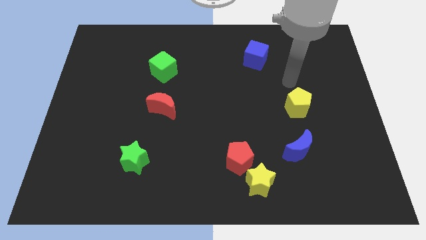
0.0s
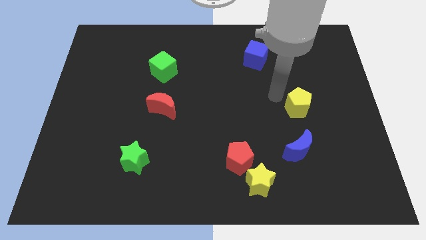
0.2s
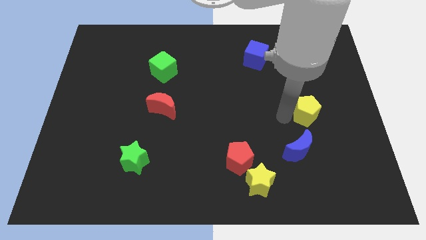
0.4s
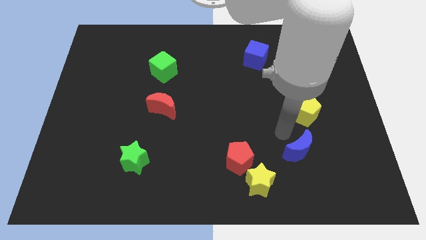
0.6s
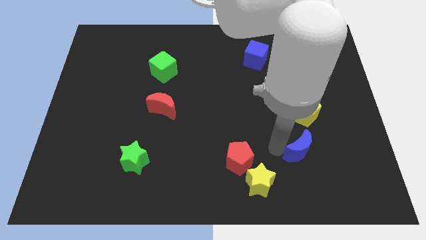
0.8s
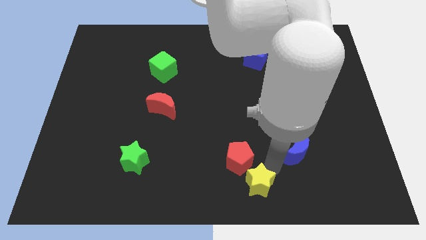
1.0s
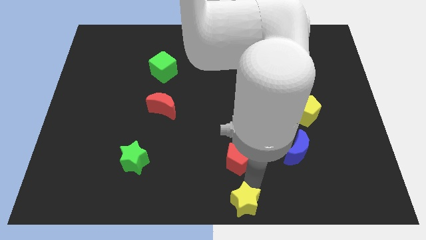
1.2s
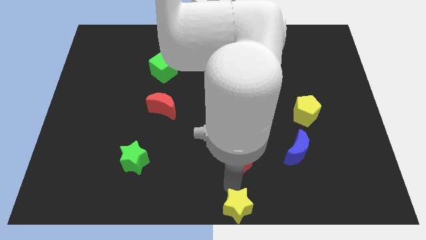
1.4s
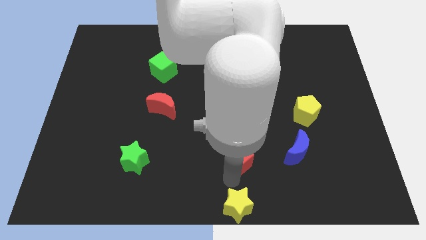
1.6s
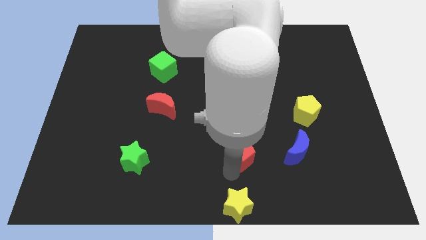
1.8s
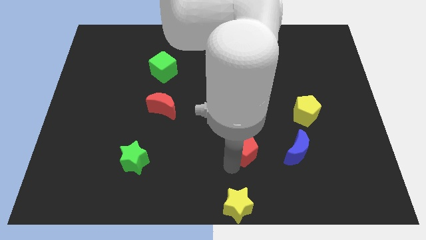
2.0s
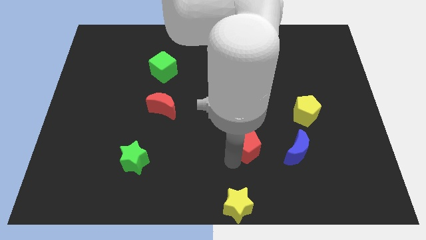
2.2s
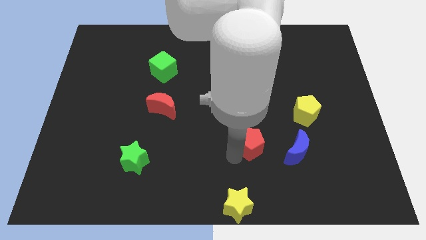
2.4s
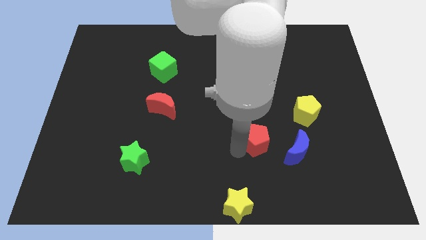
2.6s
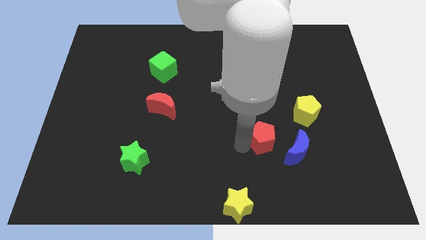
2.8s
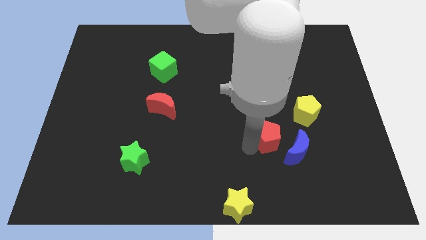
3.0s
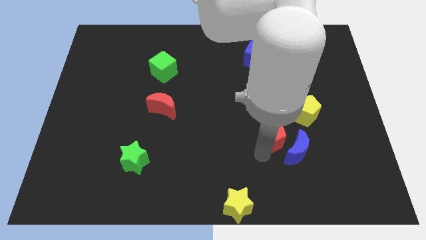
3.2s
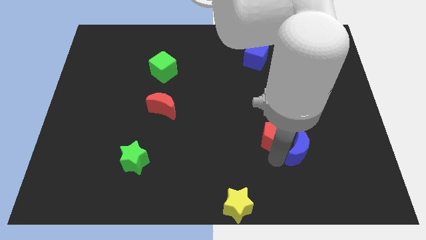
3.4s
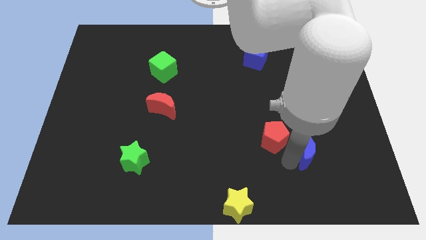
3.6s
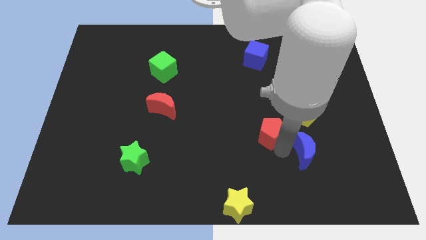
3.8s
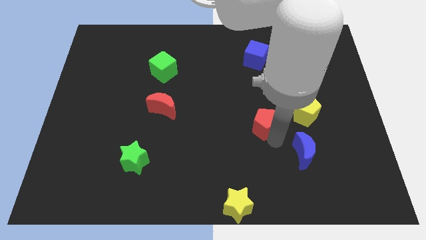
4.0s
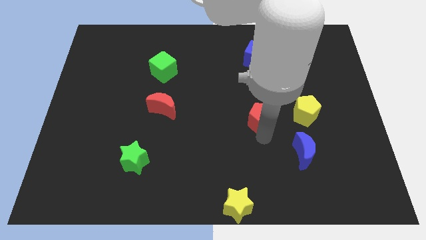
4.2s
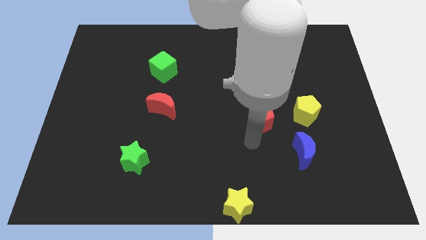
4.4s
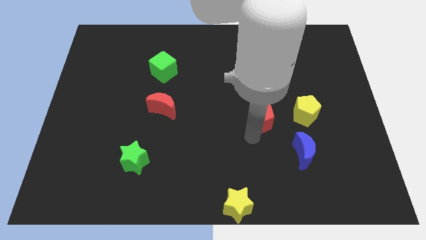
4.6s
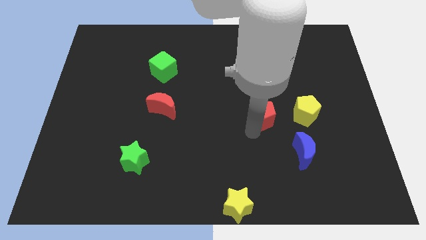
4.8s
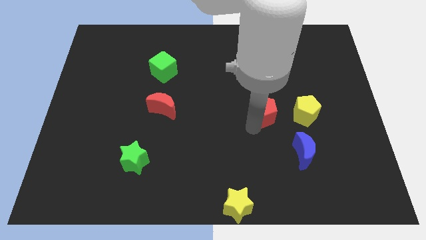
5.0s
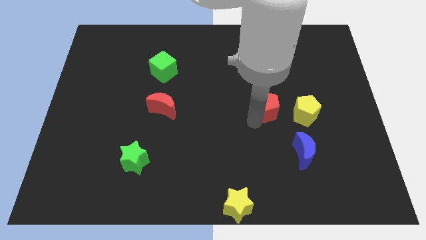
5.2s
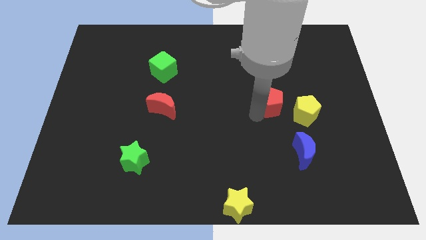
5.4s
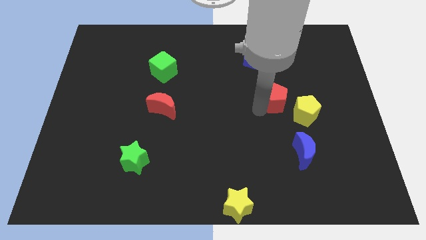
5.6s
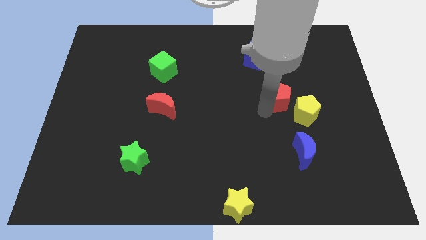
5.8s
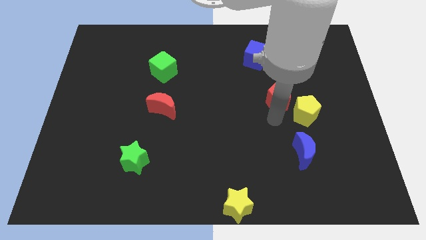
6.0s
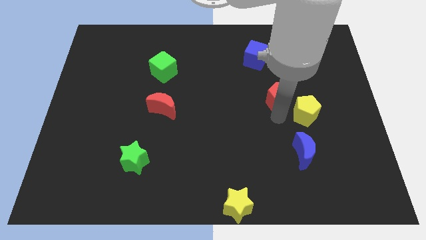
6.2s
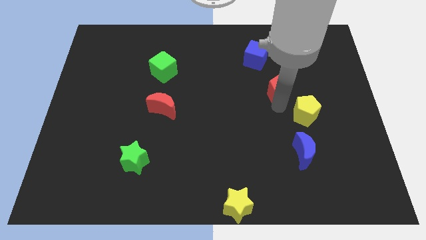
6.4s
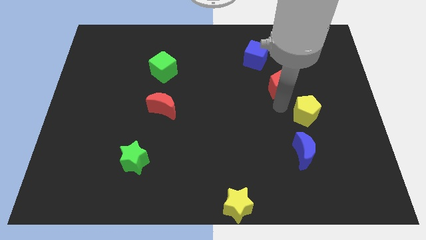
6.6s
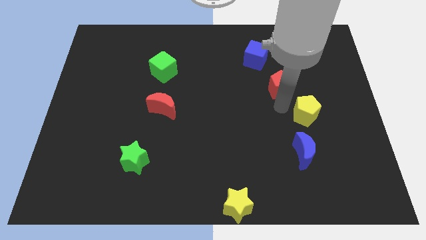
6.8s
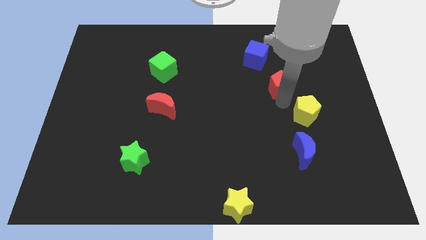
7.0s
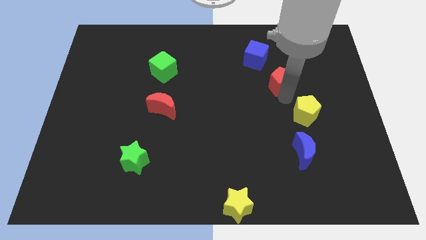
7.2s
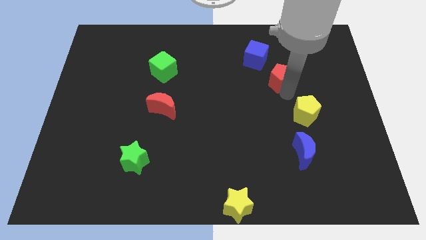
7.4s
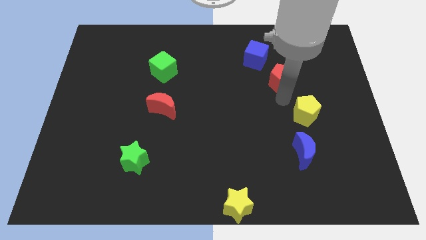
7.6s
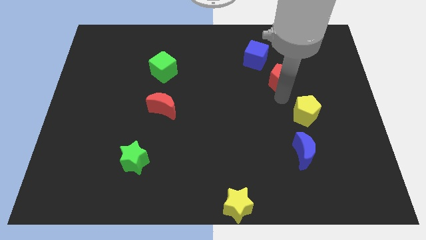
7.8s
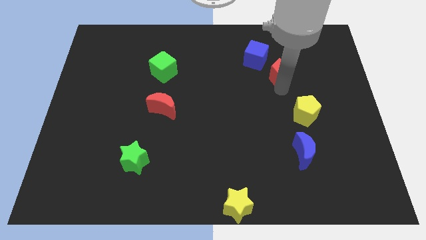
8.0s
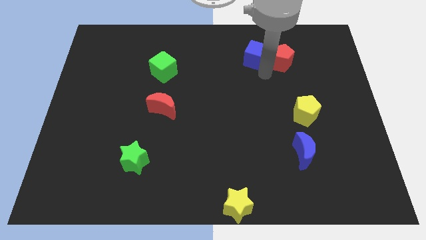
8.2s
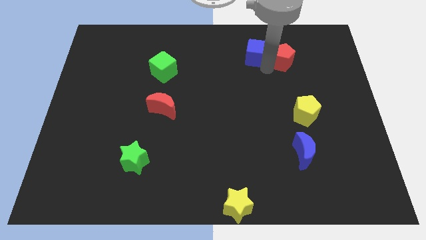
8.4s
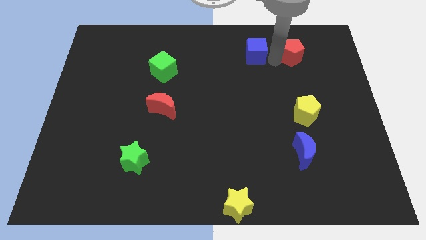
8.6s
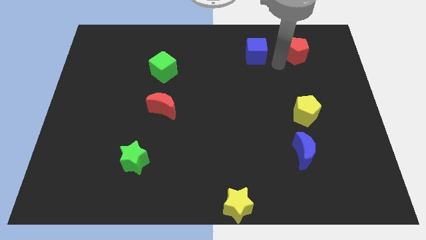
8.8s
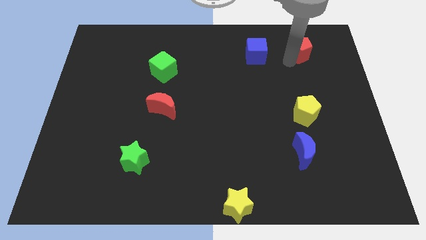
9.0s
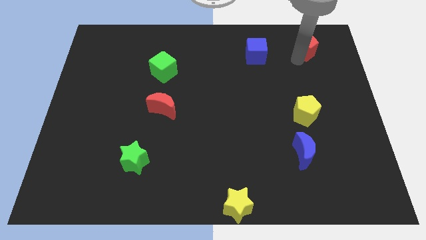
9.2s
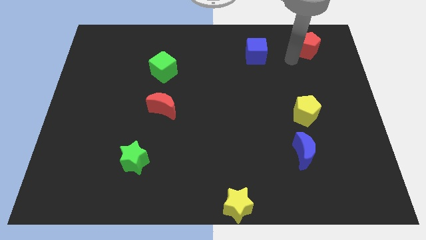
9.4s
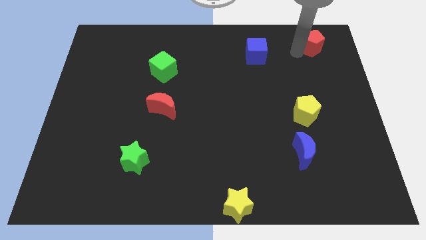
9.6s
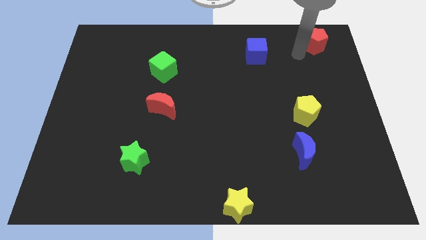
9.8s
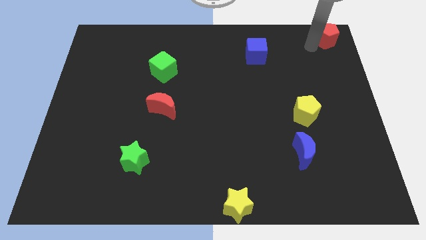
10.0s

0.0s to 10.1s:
push the red pentagon to the upper right corner

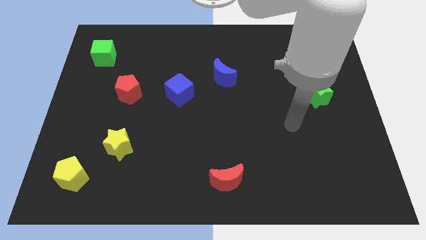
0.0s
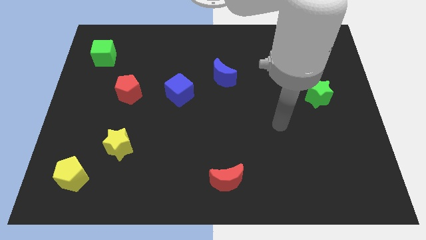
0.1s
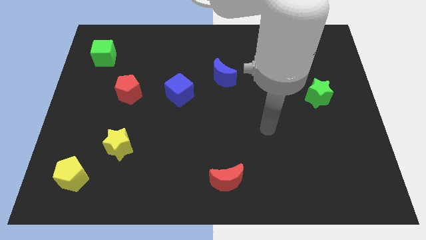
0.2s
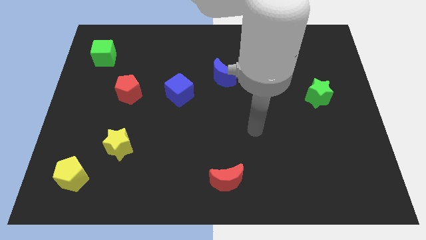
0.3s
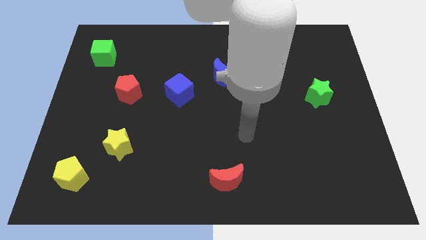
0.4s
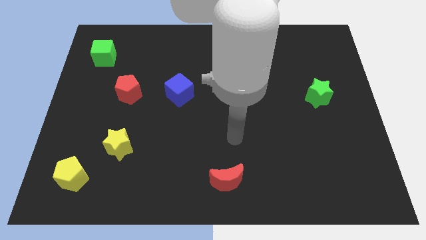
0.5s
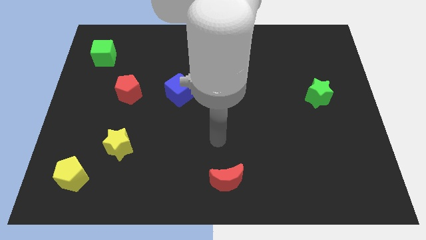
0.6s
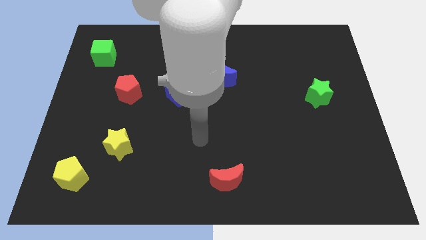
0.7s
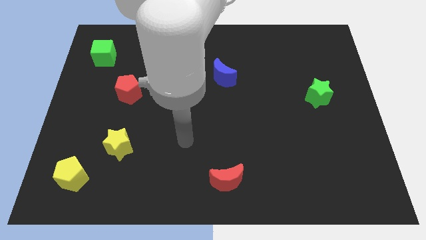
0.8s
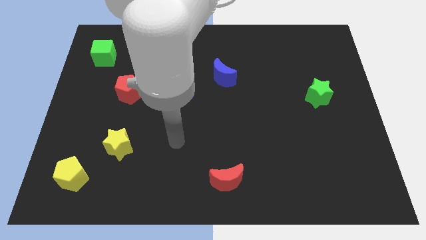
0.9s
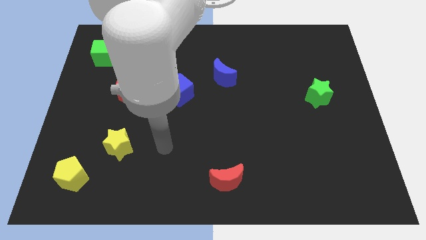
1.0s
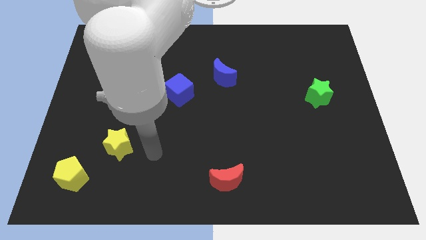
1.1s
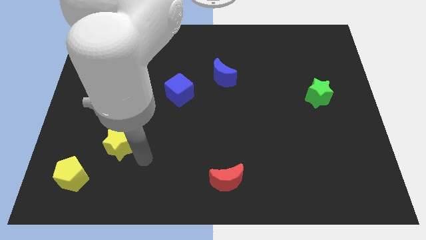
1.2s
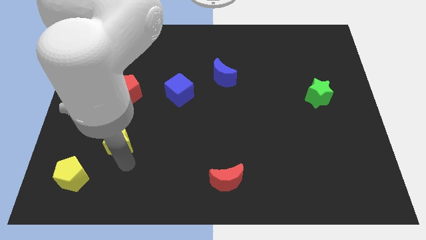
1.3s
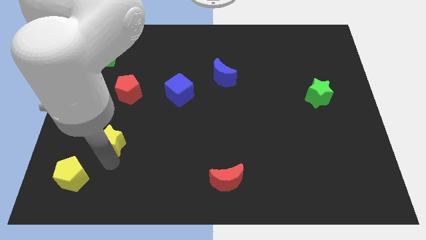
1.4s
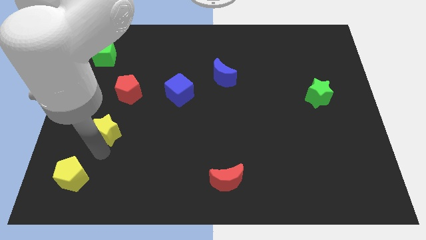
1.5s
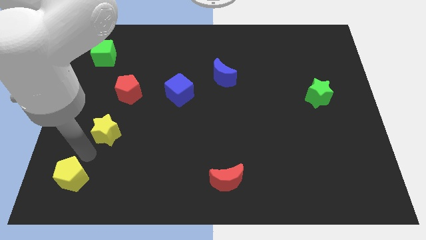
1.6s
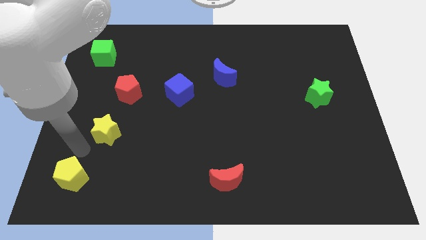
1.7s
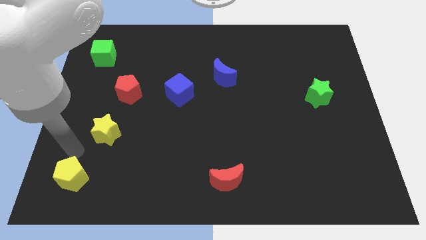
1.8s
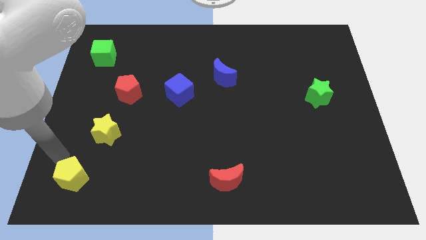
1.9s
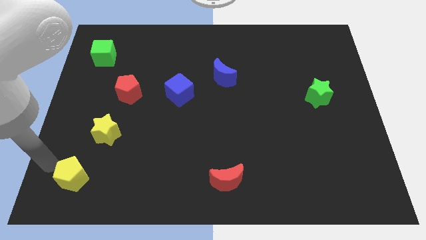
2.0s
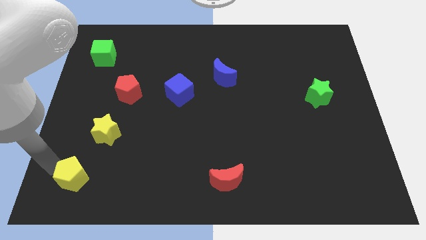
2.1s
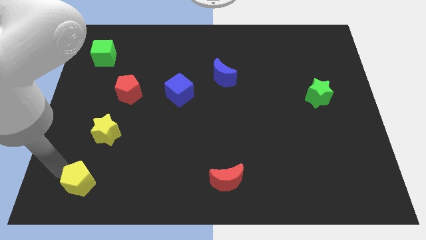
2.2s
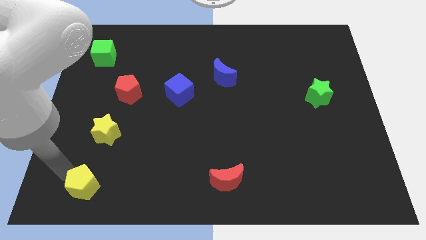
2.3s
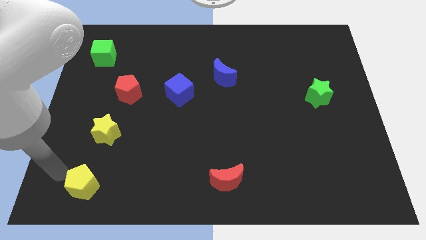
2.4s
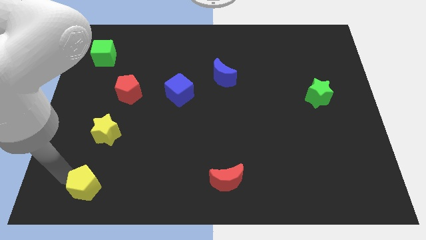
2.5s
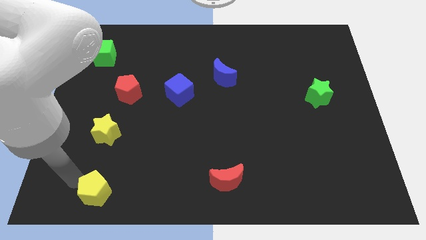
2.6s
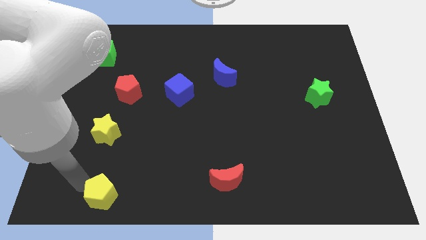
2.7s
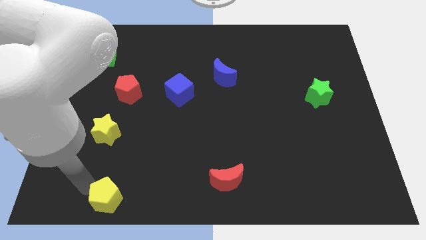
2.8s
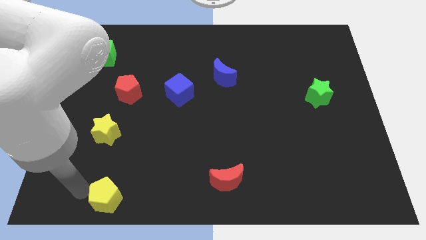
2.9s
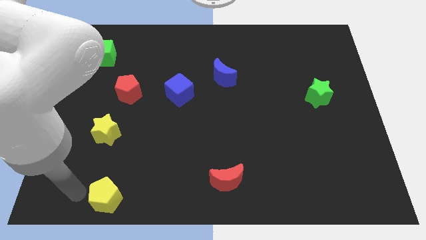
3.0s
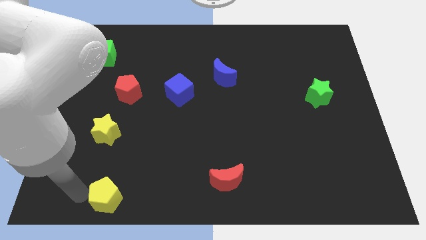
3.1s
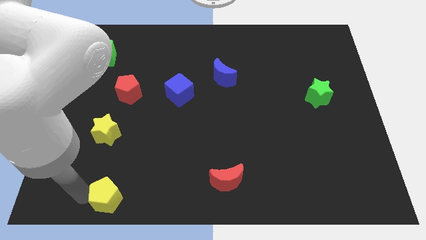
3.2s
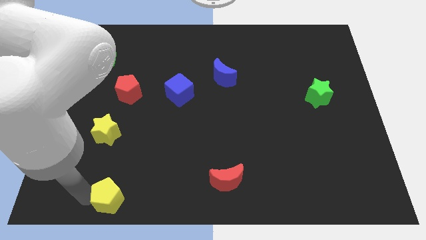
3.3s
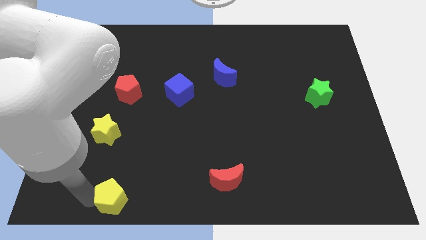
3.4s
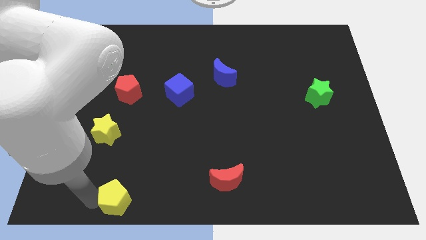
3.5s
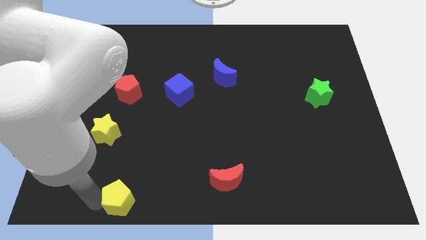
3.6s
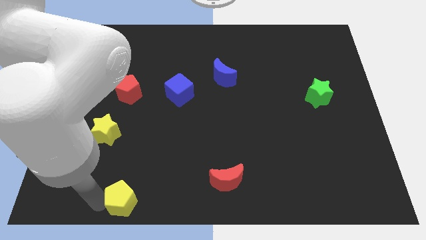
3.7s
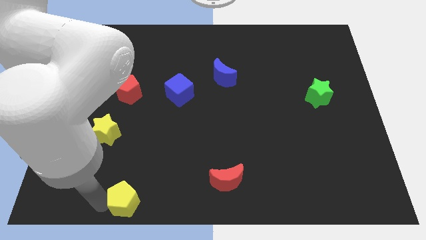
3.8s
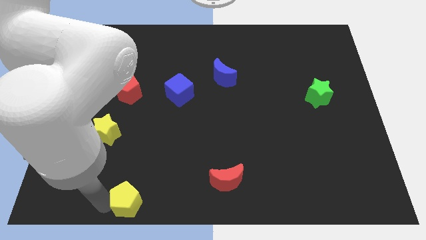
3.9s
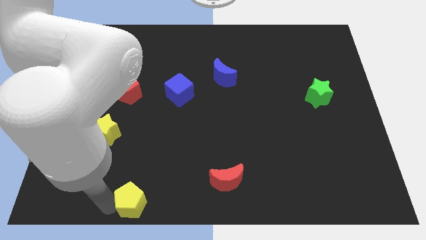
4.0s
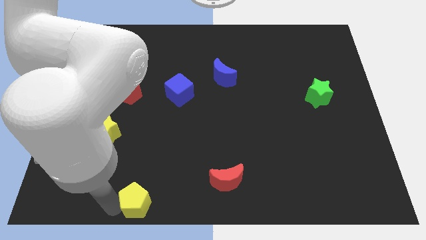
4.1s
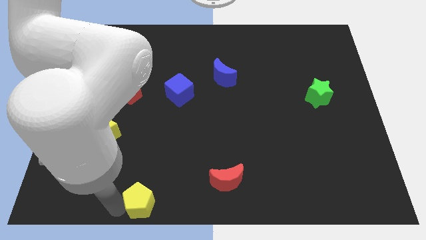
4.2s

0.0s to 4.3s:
slide the yellow pentagon to the bottom
